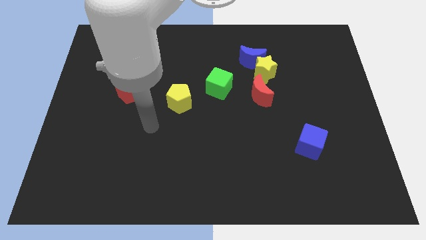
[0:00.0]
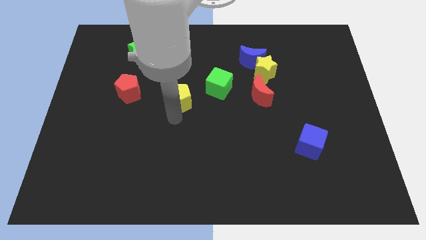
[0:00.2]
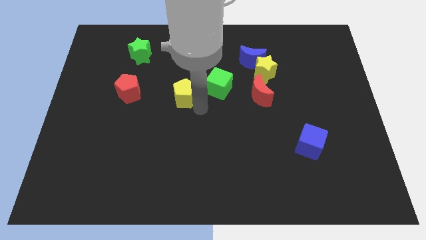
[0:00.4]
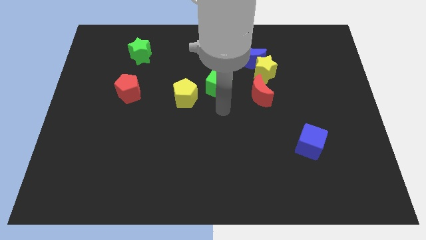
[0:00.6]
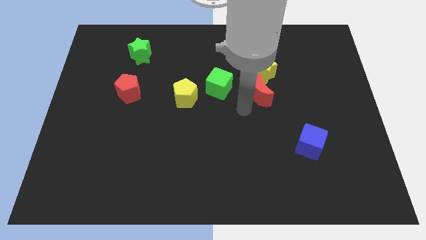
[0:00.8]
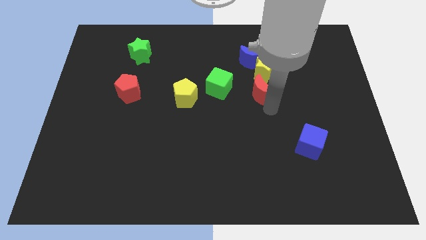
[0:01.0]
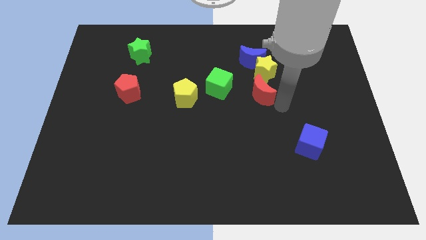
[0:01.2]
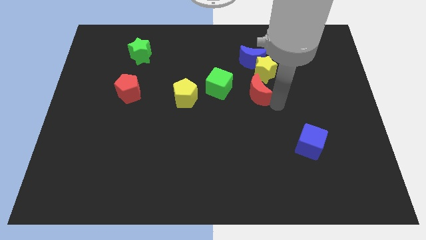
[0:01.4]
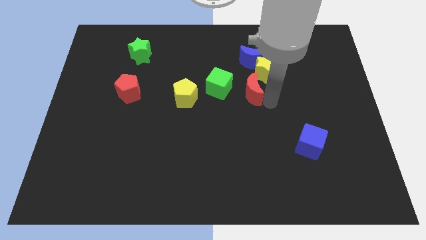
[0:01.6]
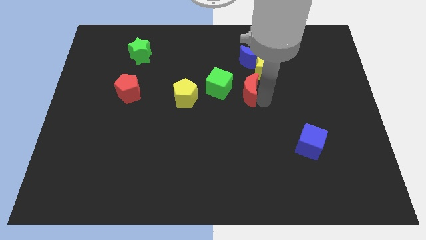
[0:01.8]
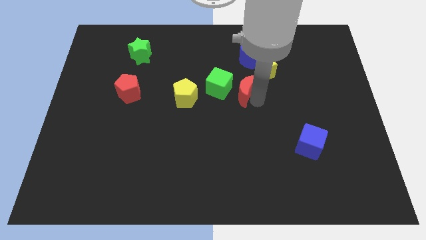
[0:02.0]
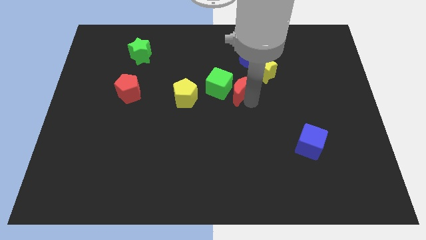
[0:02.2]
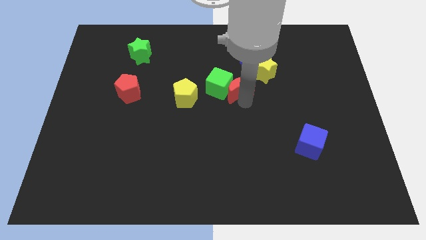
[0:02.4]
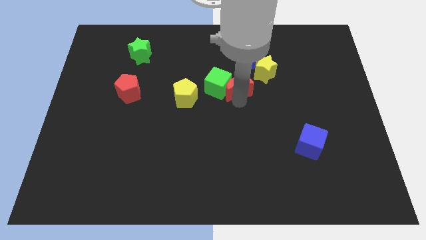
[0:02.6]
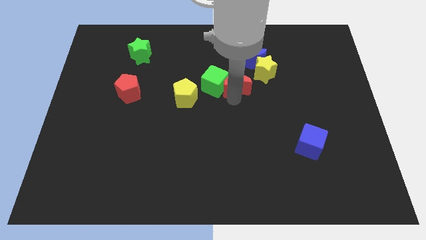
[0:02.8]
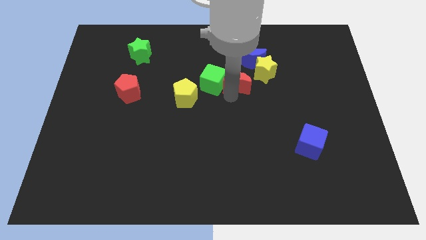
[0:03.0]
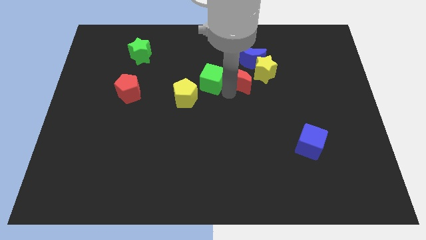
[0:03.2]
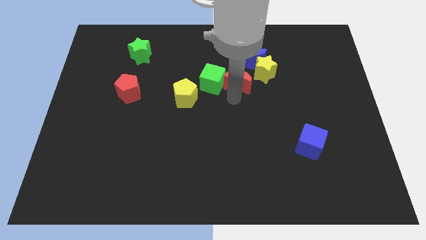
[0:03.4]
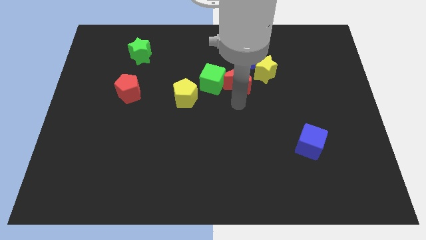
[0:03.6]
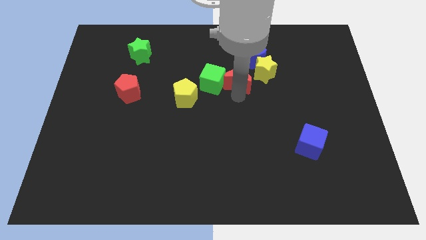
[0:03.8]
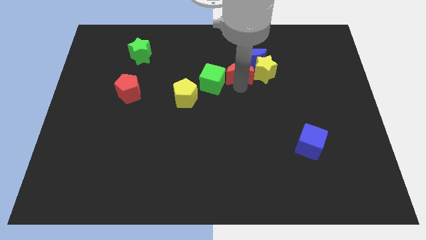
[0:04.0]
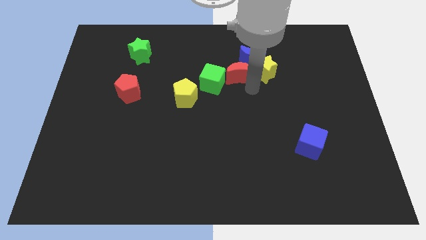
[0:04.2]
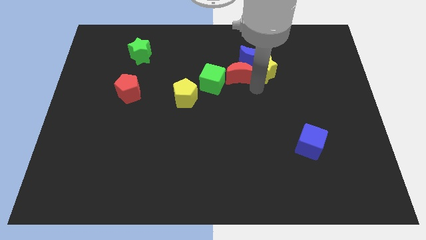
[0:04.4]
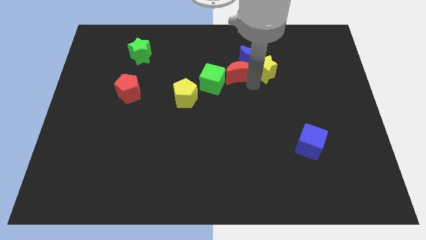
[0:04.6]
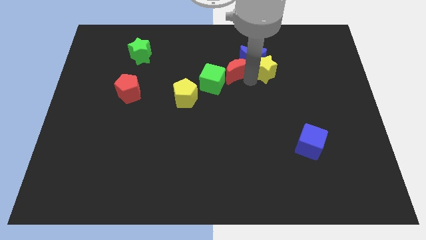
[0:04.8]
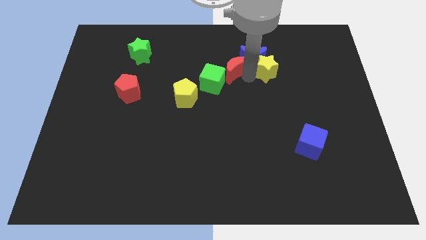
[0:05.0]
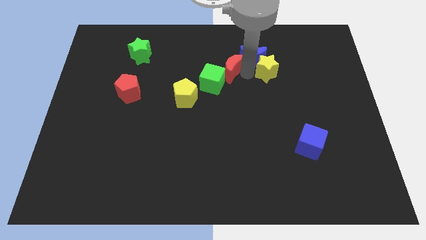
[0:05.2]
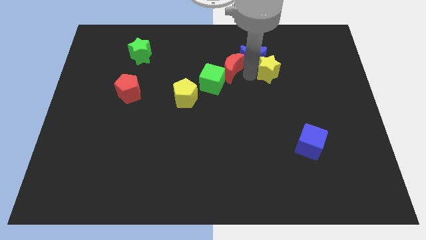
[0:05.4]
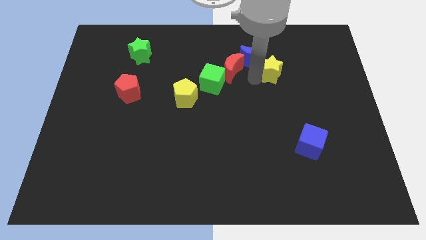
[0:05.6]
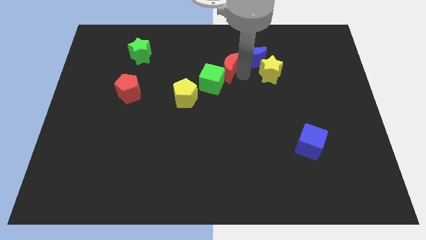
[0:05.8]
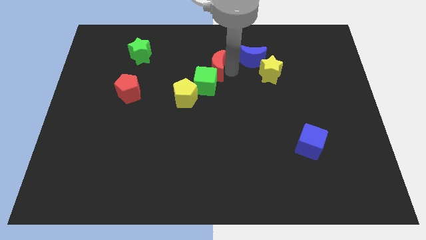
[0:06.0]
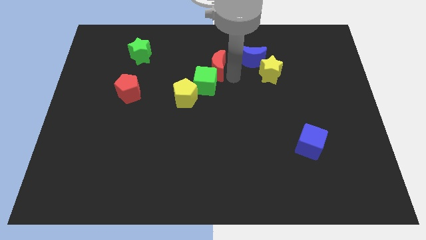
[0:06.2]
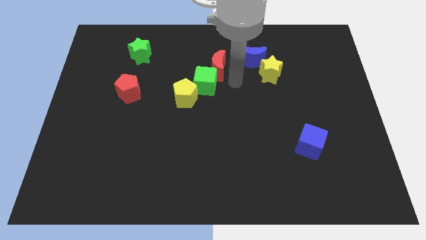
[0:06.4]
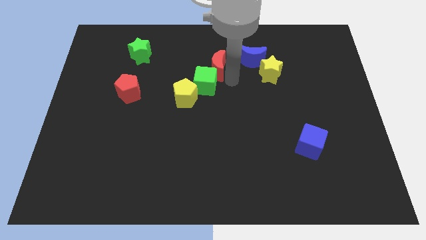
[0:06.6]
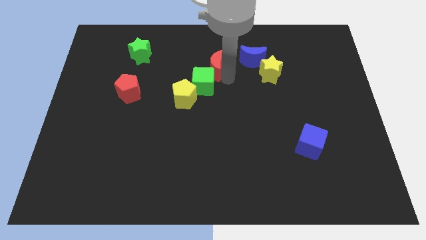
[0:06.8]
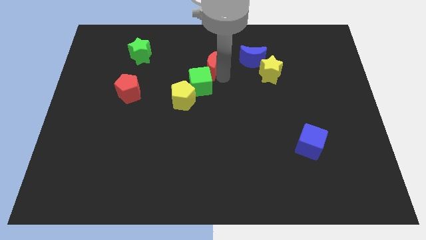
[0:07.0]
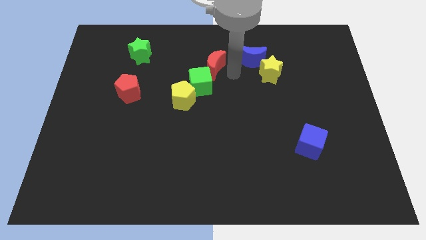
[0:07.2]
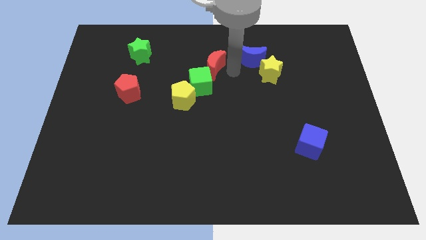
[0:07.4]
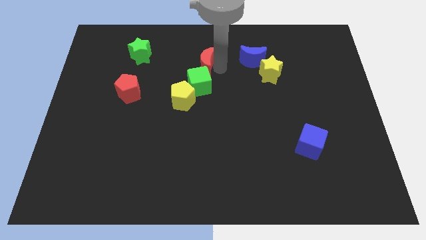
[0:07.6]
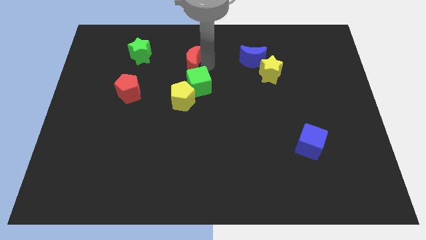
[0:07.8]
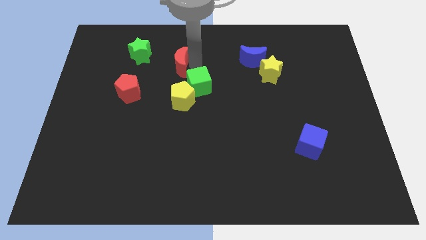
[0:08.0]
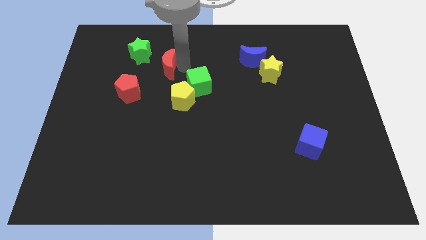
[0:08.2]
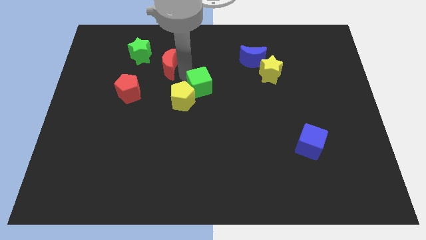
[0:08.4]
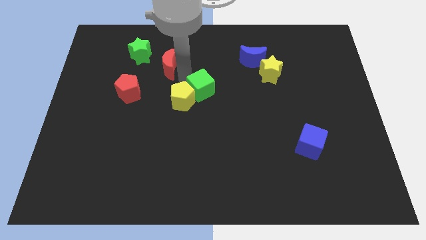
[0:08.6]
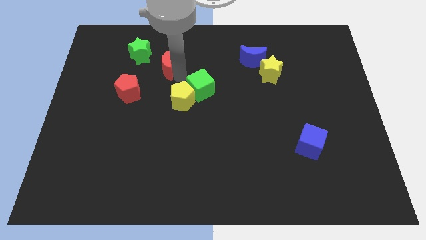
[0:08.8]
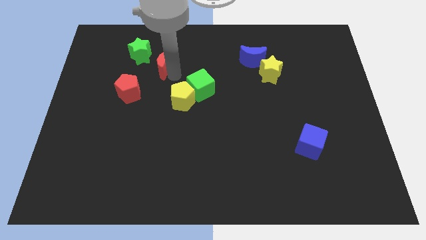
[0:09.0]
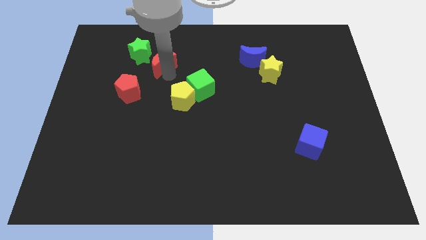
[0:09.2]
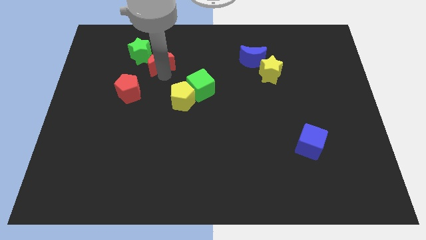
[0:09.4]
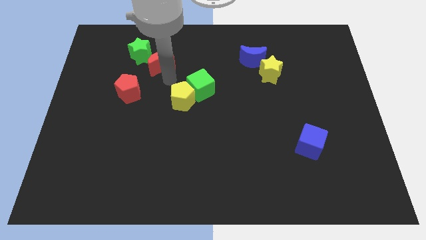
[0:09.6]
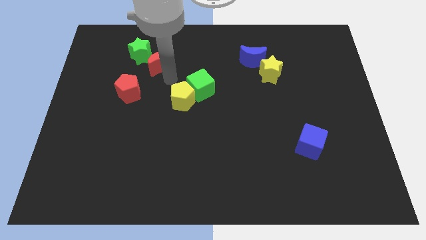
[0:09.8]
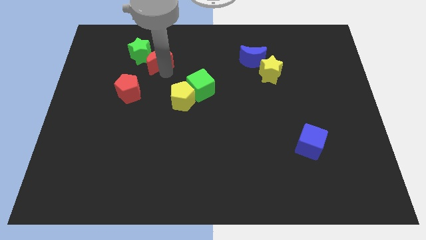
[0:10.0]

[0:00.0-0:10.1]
push the red moon close to the green star

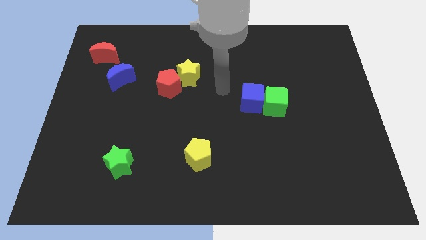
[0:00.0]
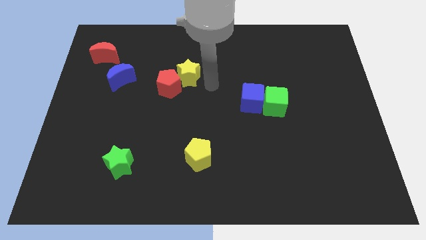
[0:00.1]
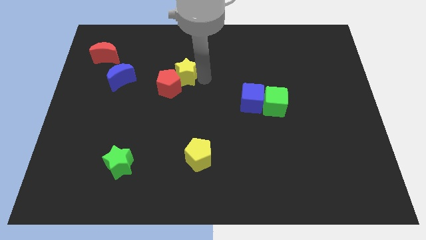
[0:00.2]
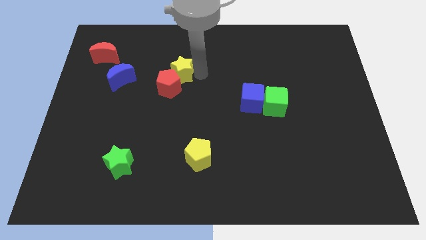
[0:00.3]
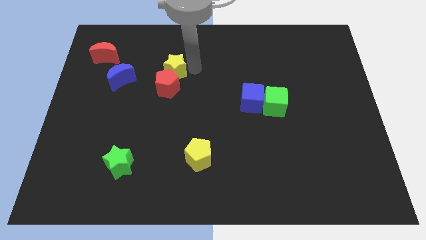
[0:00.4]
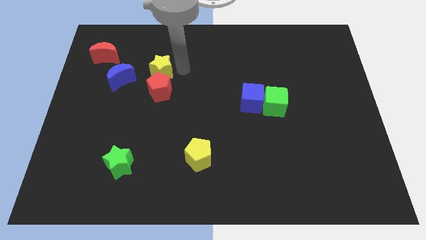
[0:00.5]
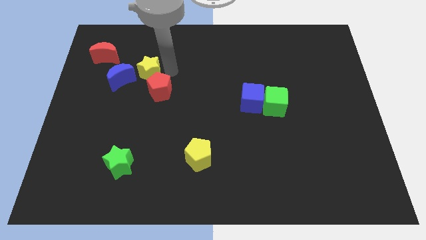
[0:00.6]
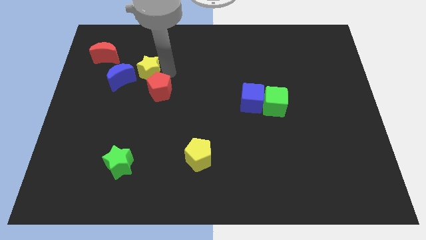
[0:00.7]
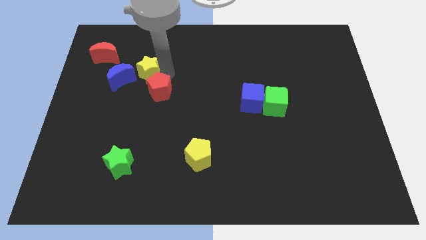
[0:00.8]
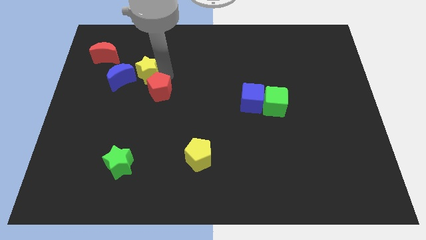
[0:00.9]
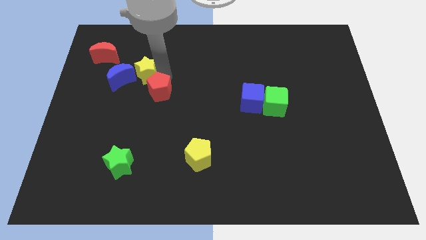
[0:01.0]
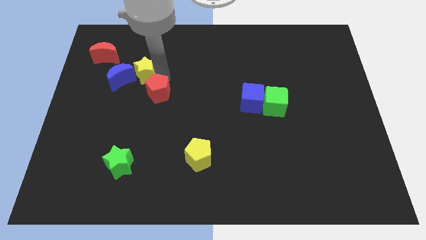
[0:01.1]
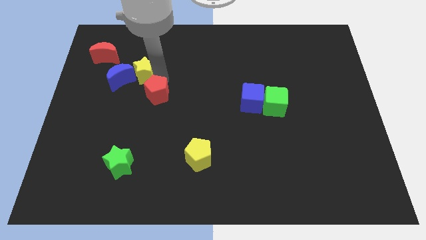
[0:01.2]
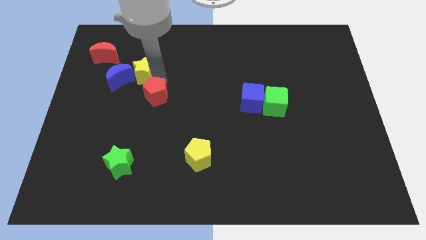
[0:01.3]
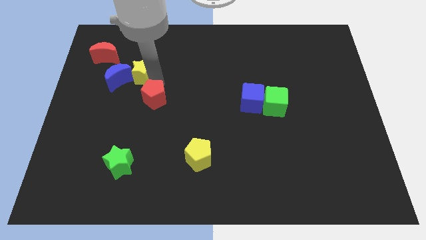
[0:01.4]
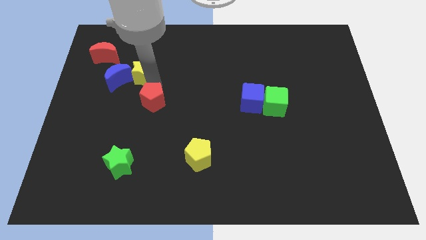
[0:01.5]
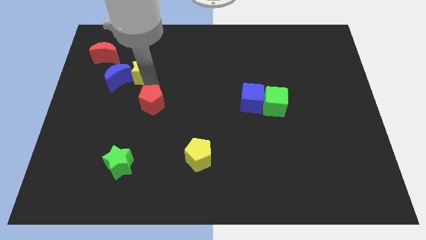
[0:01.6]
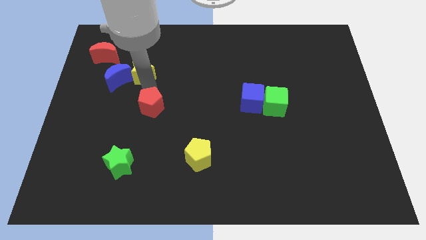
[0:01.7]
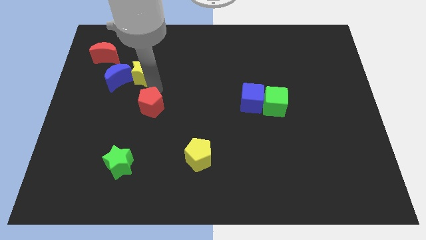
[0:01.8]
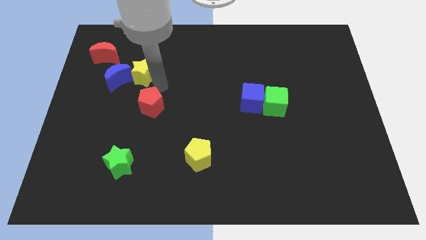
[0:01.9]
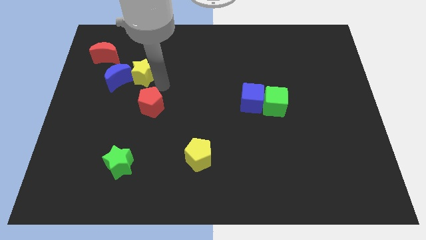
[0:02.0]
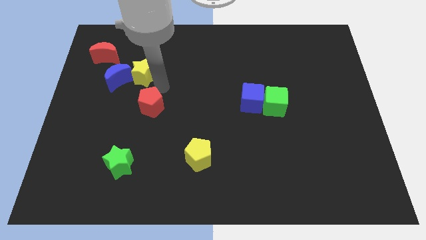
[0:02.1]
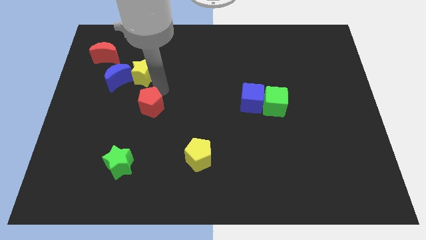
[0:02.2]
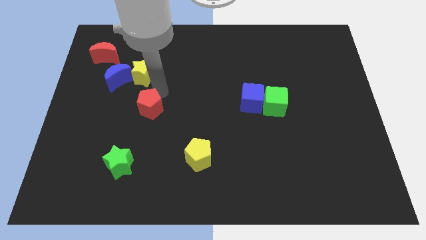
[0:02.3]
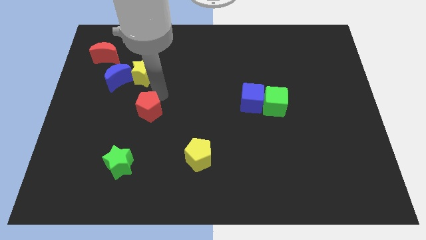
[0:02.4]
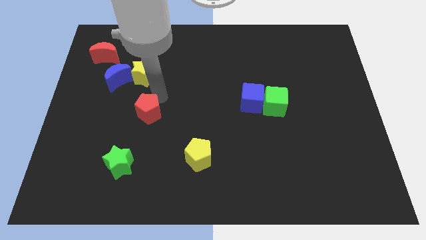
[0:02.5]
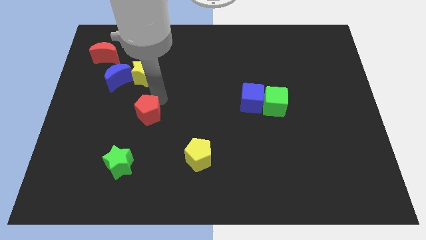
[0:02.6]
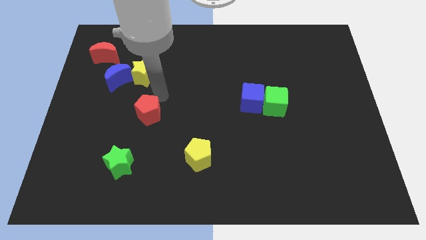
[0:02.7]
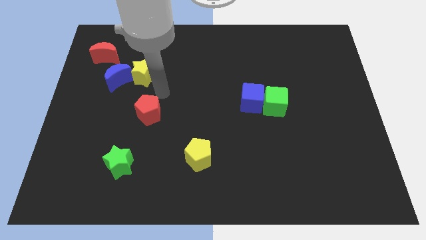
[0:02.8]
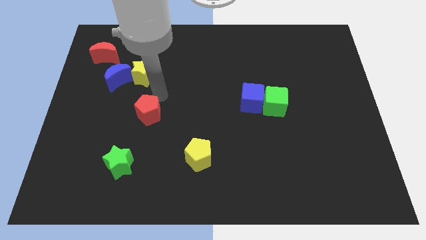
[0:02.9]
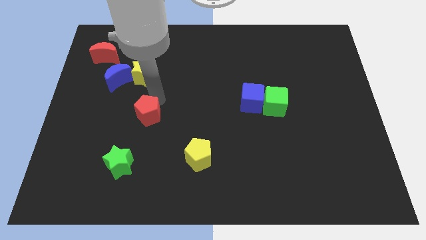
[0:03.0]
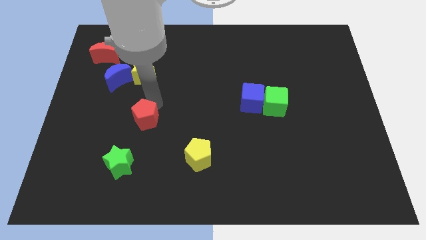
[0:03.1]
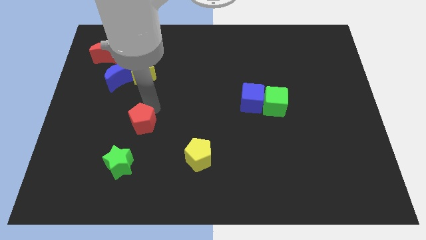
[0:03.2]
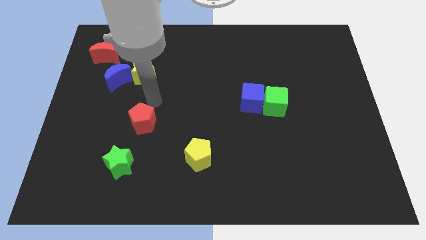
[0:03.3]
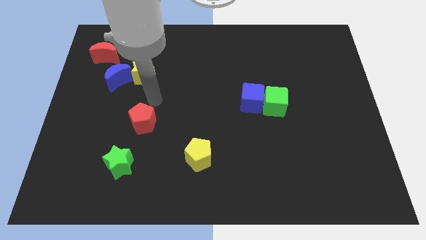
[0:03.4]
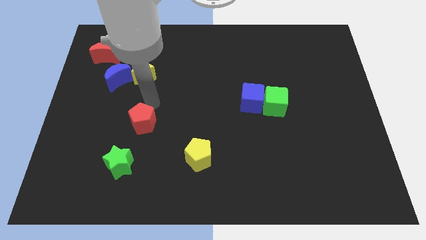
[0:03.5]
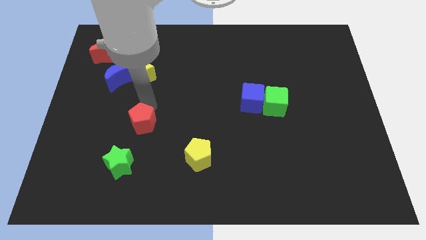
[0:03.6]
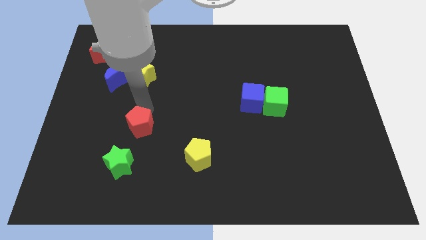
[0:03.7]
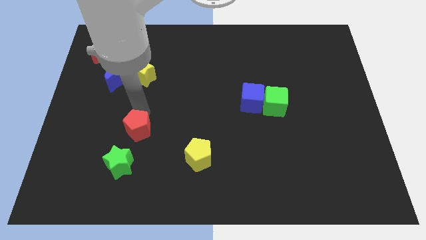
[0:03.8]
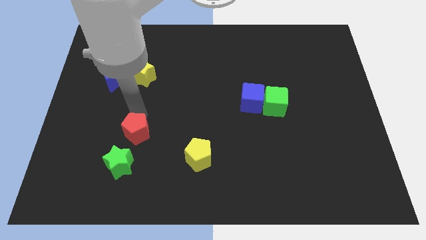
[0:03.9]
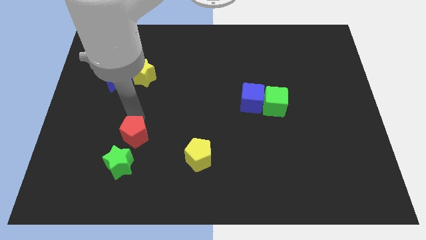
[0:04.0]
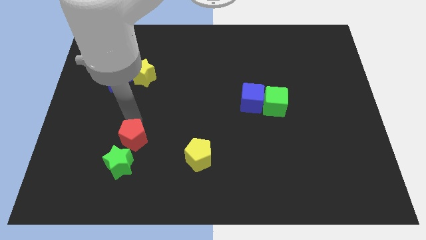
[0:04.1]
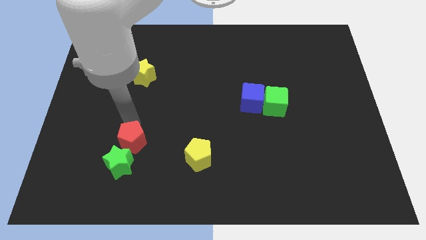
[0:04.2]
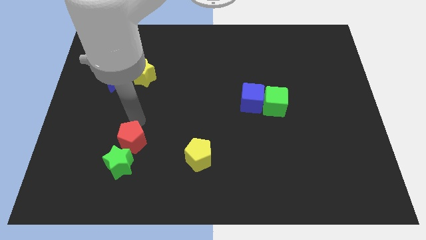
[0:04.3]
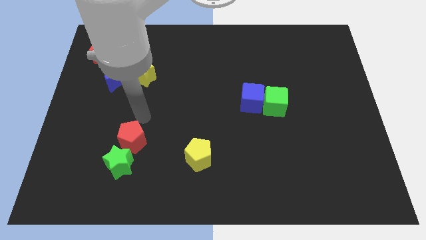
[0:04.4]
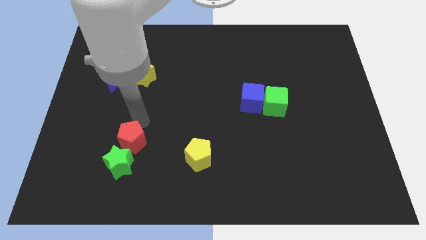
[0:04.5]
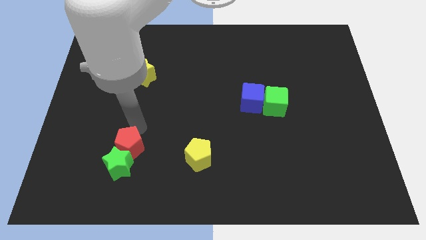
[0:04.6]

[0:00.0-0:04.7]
push the red pentagon to the green star
